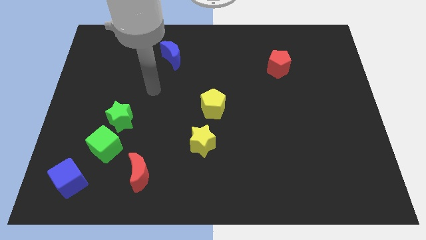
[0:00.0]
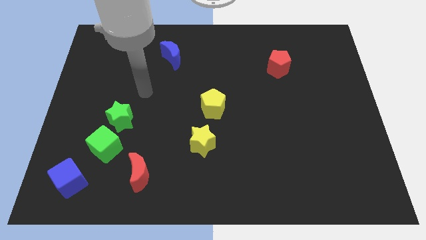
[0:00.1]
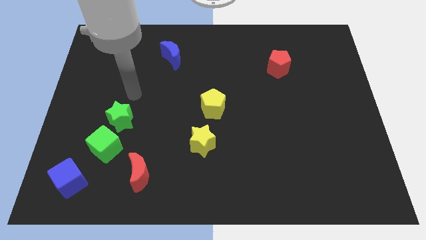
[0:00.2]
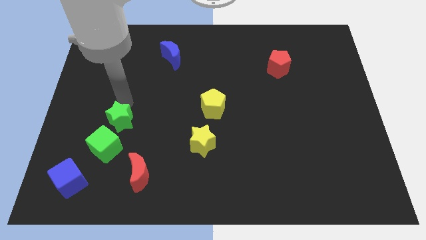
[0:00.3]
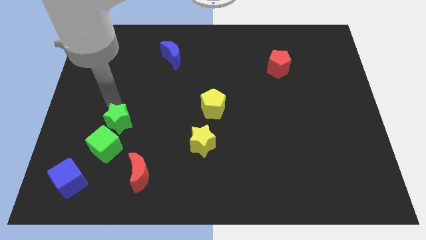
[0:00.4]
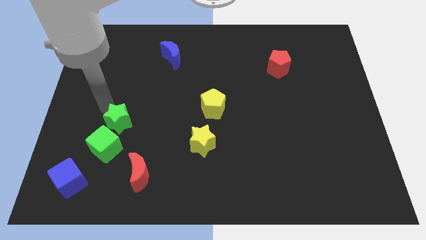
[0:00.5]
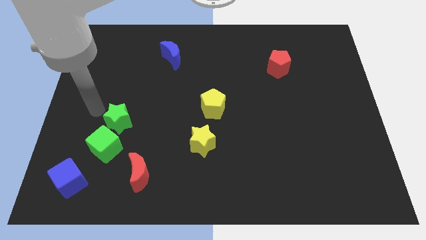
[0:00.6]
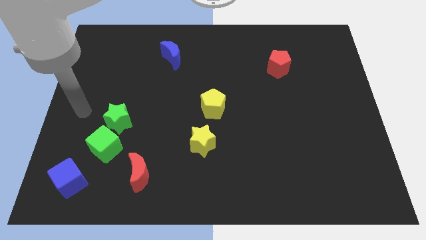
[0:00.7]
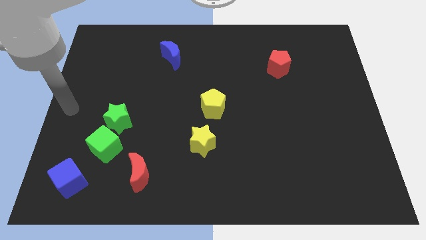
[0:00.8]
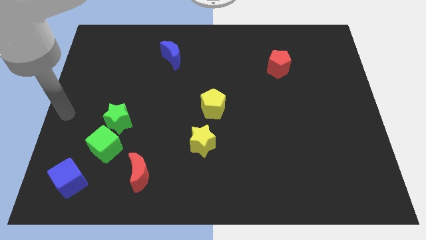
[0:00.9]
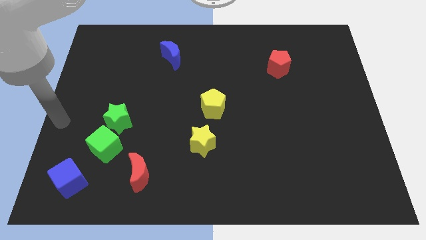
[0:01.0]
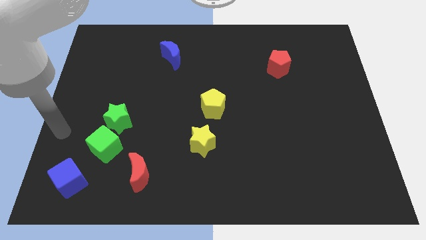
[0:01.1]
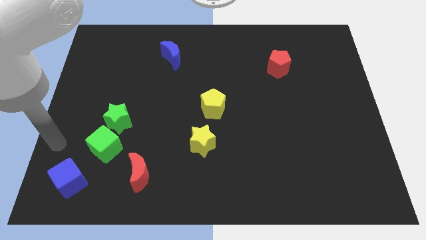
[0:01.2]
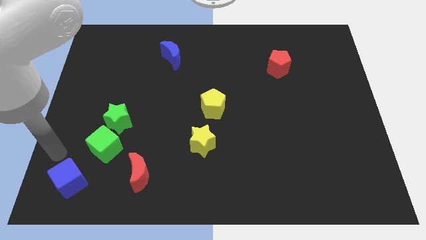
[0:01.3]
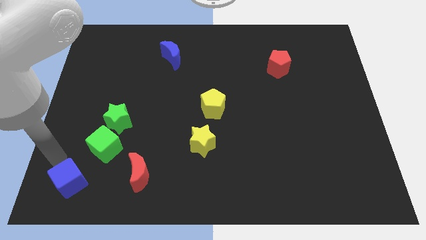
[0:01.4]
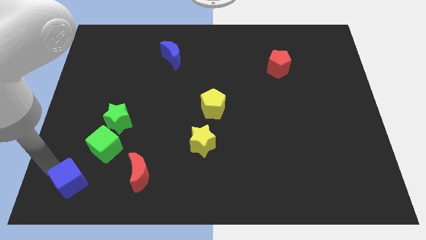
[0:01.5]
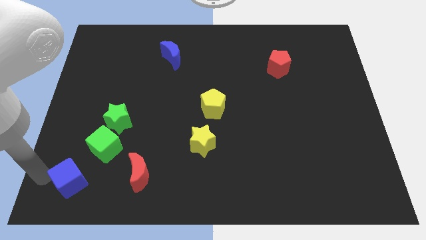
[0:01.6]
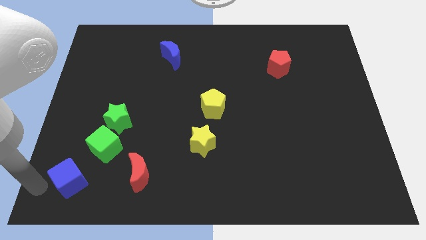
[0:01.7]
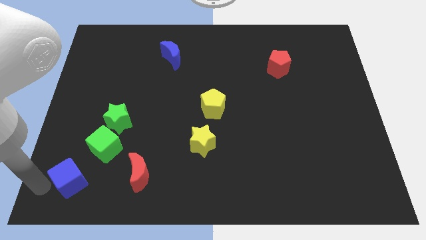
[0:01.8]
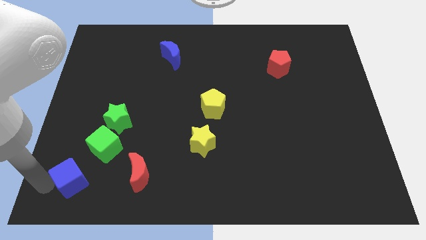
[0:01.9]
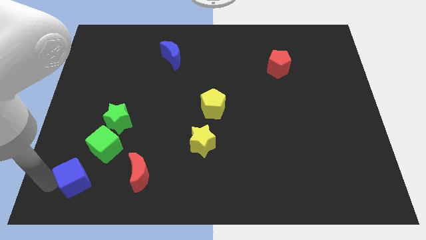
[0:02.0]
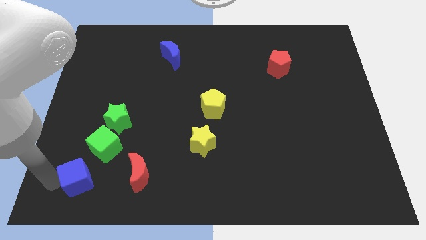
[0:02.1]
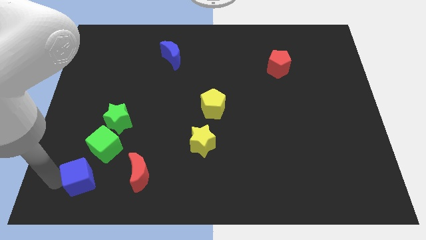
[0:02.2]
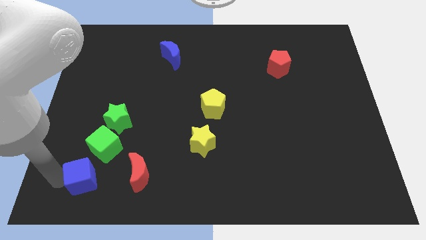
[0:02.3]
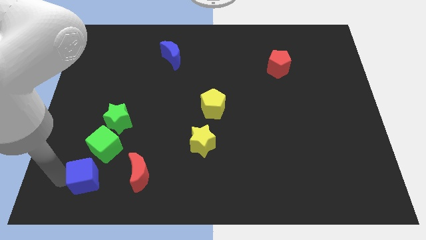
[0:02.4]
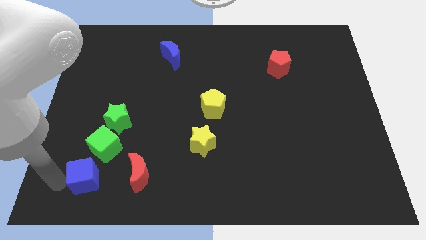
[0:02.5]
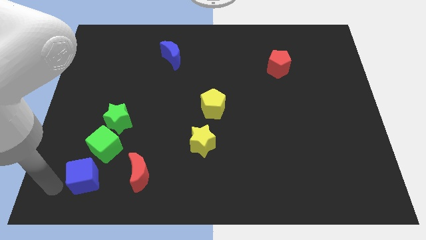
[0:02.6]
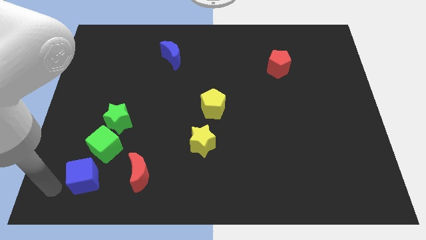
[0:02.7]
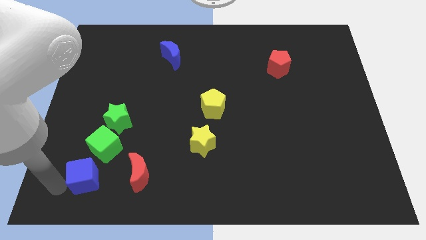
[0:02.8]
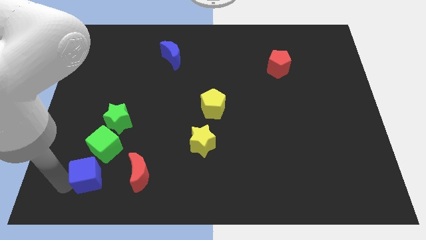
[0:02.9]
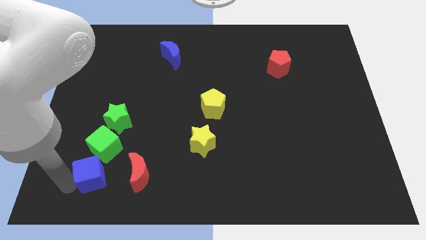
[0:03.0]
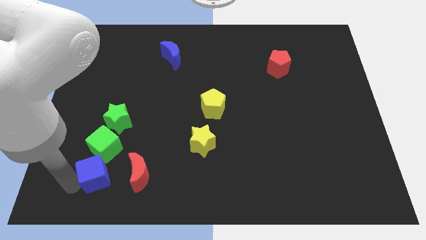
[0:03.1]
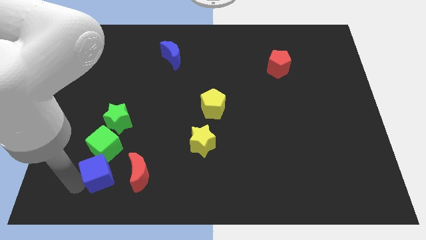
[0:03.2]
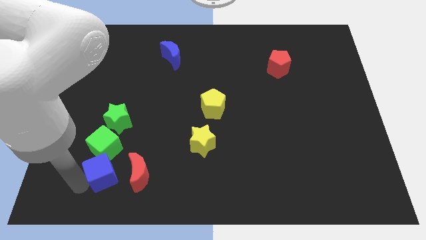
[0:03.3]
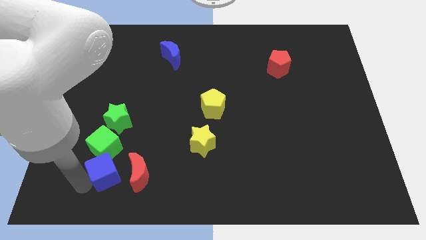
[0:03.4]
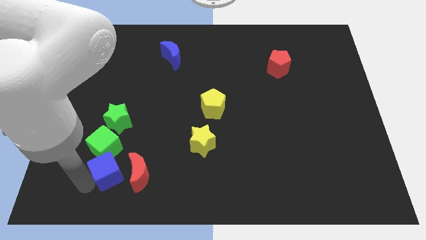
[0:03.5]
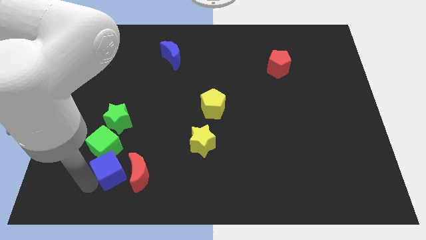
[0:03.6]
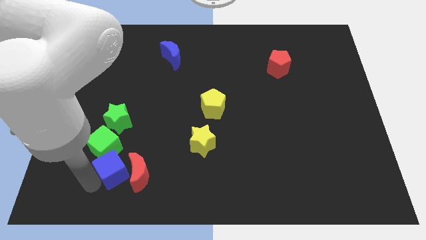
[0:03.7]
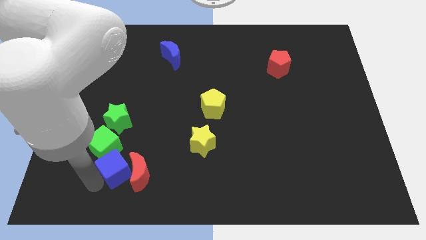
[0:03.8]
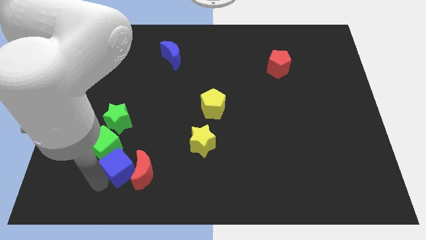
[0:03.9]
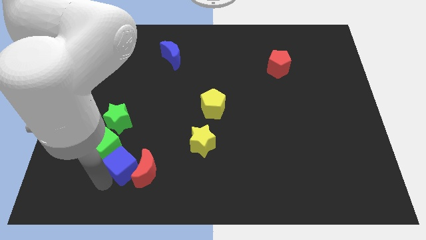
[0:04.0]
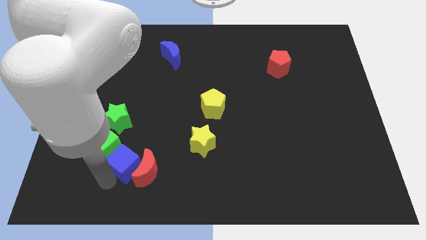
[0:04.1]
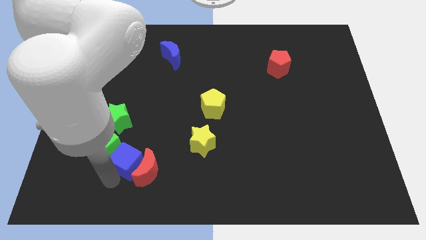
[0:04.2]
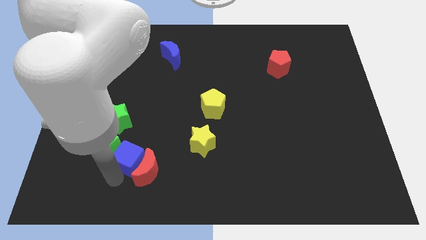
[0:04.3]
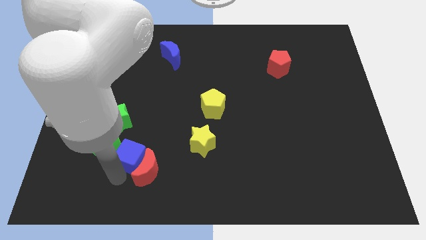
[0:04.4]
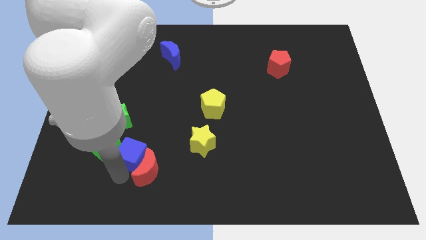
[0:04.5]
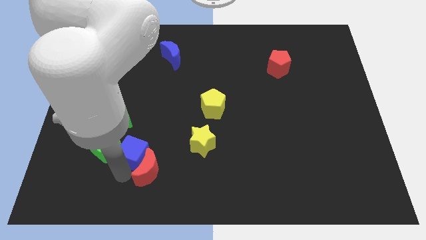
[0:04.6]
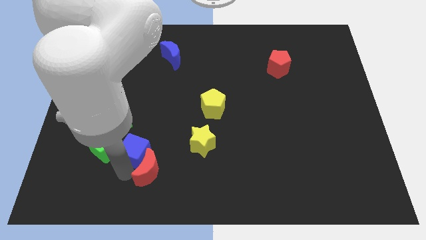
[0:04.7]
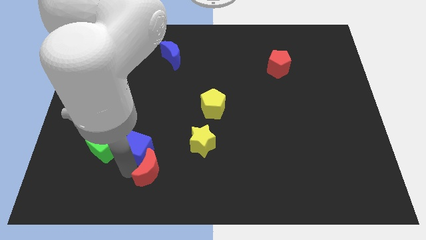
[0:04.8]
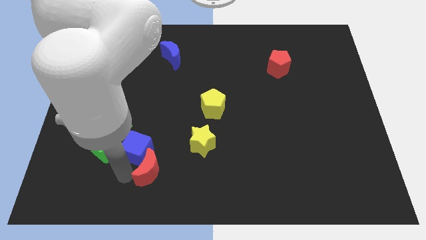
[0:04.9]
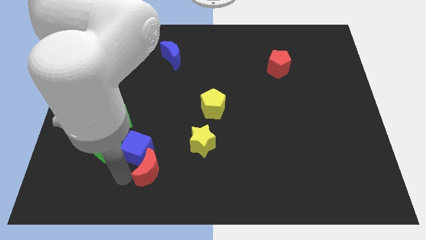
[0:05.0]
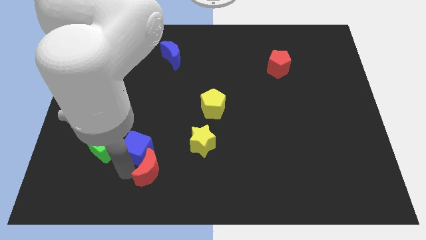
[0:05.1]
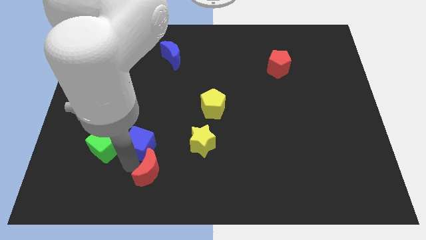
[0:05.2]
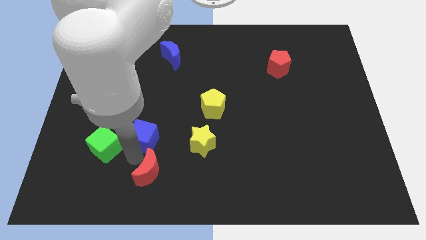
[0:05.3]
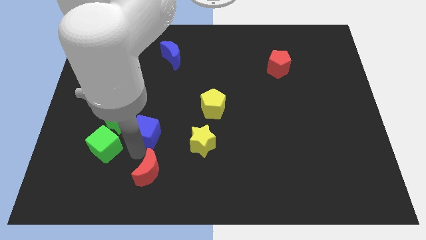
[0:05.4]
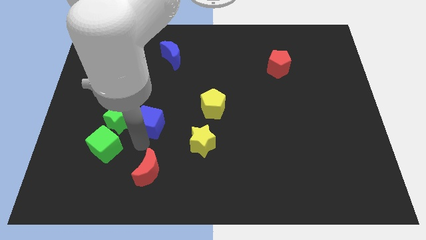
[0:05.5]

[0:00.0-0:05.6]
push the blue cube diagonally up and to the right

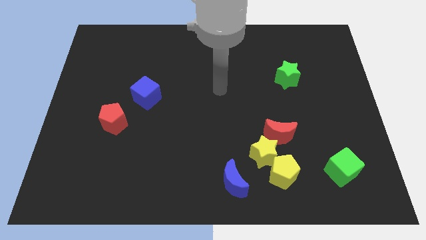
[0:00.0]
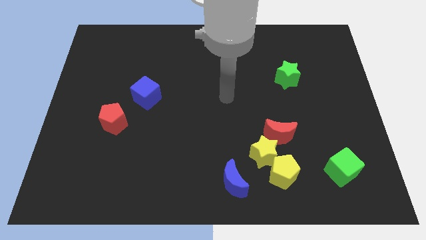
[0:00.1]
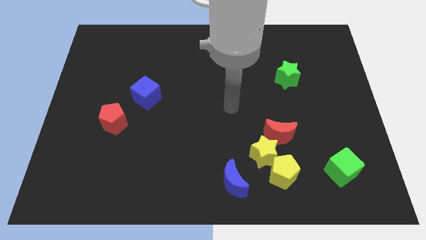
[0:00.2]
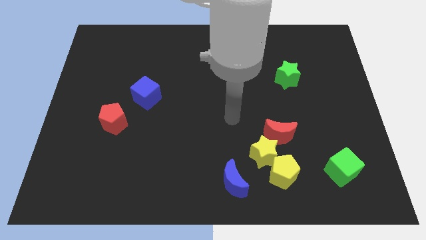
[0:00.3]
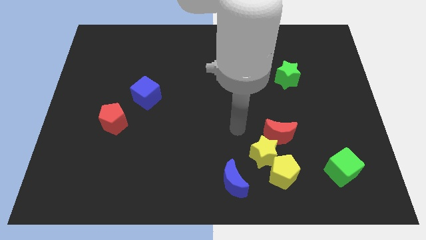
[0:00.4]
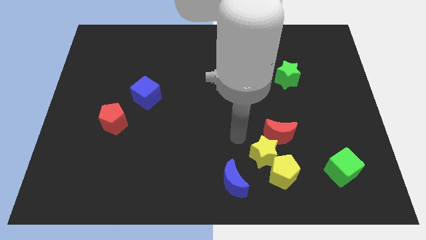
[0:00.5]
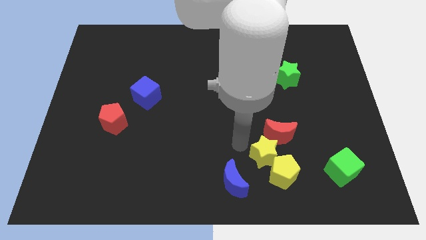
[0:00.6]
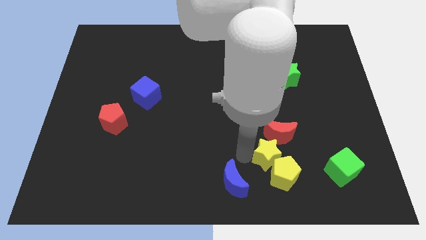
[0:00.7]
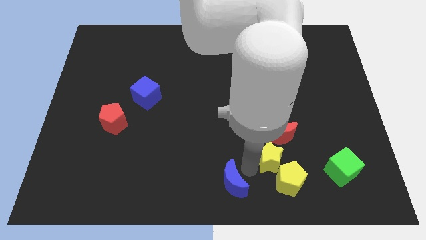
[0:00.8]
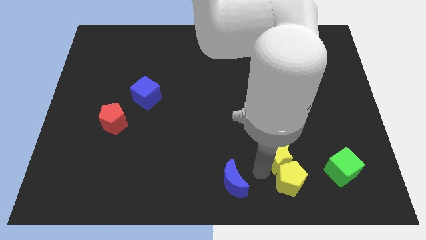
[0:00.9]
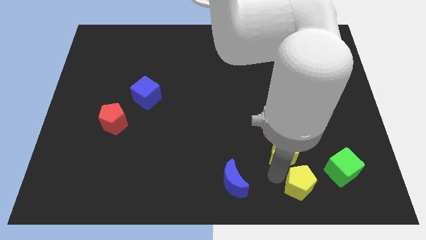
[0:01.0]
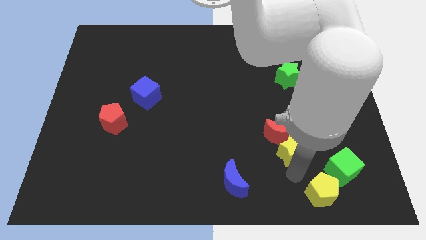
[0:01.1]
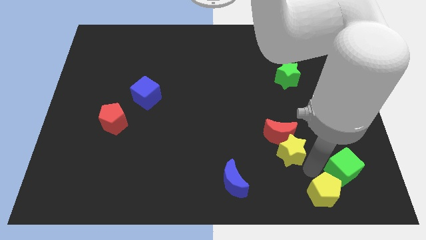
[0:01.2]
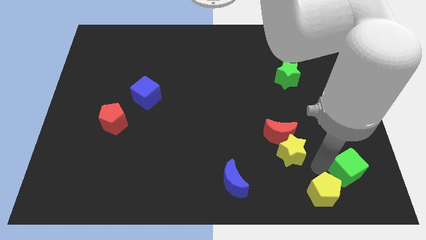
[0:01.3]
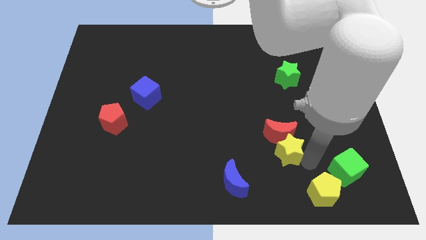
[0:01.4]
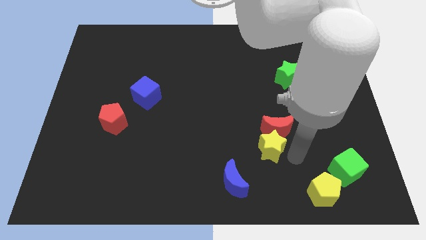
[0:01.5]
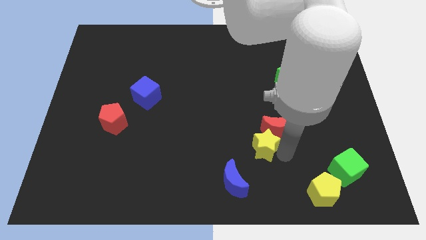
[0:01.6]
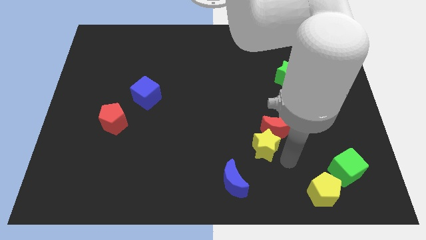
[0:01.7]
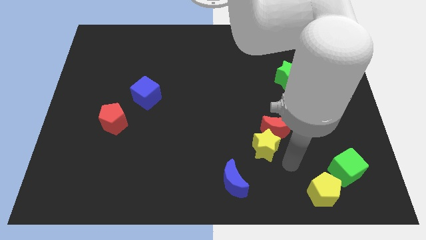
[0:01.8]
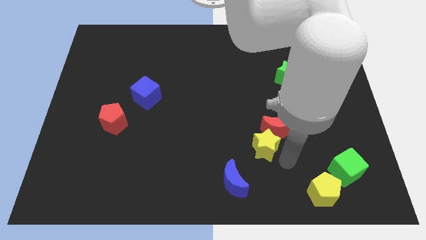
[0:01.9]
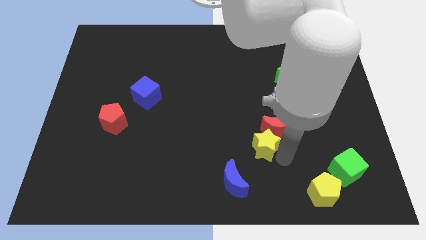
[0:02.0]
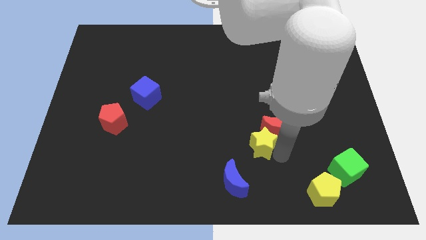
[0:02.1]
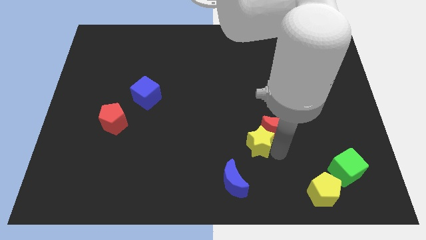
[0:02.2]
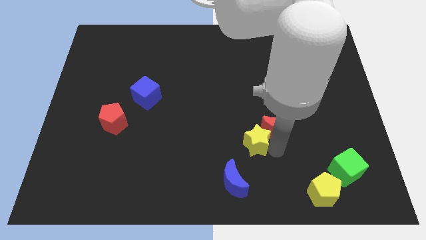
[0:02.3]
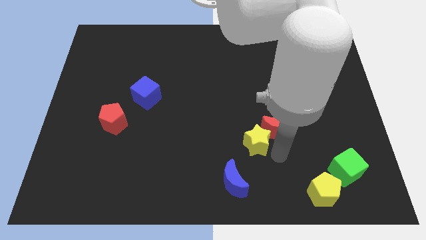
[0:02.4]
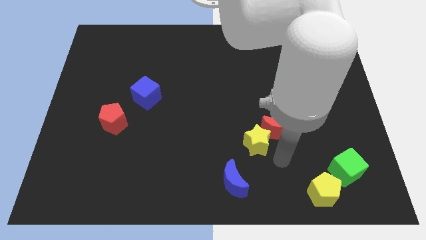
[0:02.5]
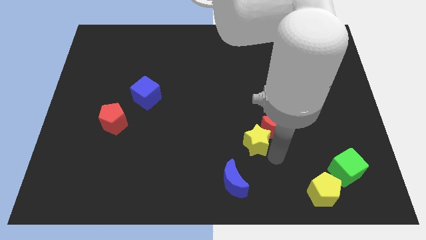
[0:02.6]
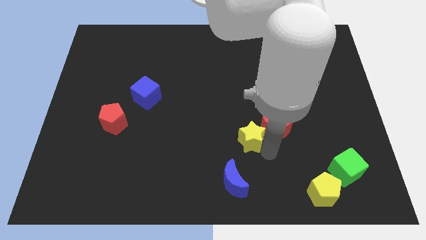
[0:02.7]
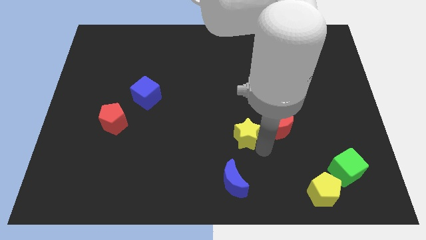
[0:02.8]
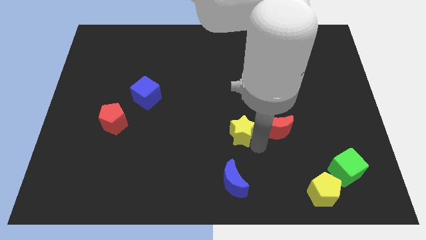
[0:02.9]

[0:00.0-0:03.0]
move the yellow star a little diagonally up and left
